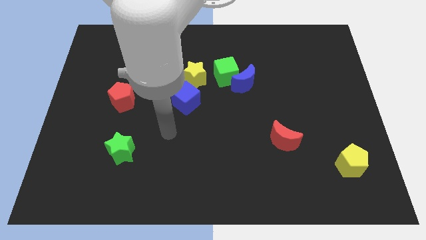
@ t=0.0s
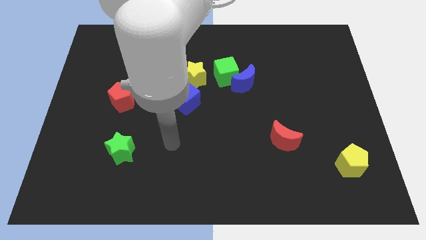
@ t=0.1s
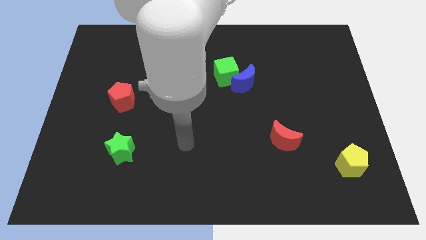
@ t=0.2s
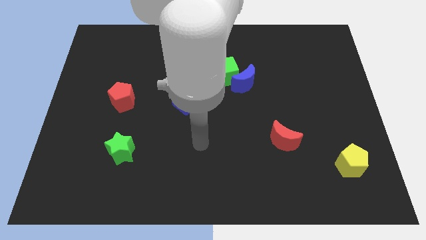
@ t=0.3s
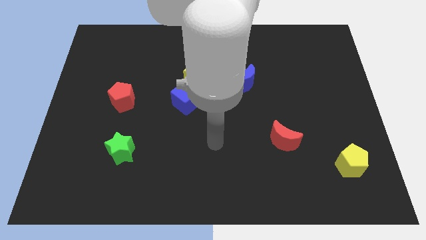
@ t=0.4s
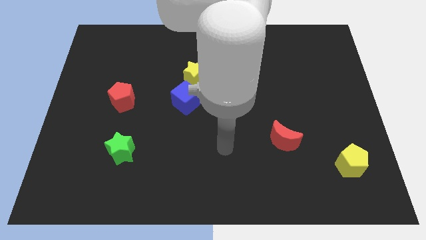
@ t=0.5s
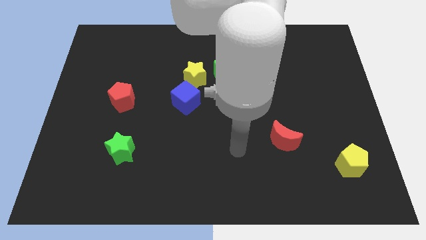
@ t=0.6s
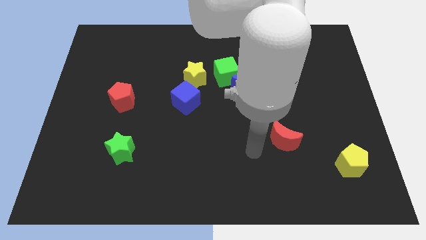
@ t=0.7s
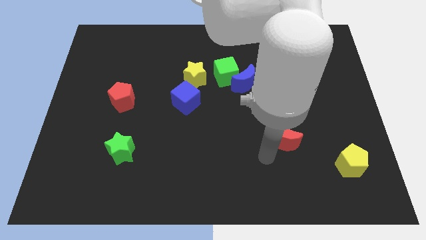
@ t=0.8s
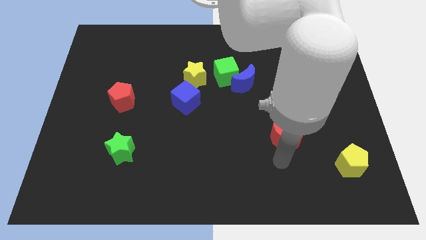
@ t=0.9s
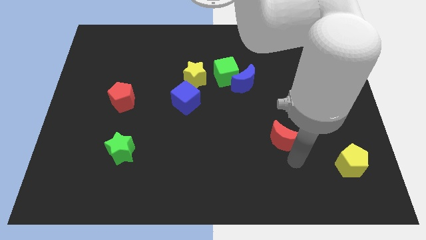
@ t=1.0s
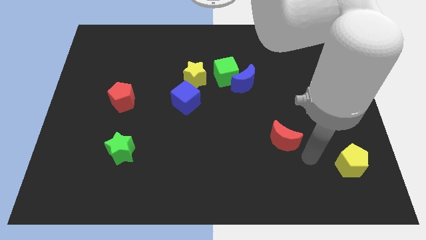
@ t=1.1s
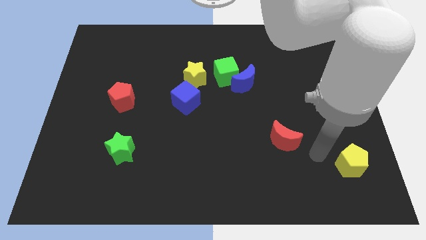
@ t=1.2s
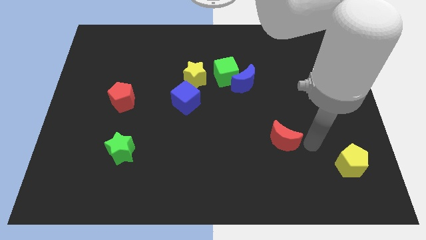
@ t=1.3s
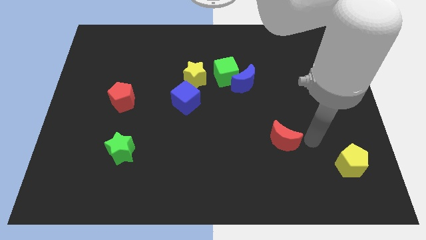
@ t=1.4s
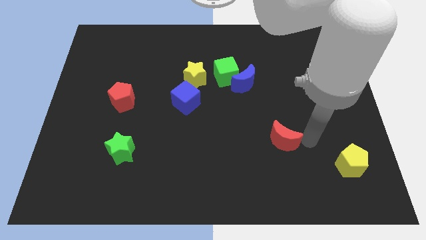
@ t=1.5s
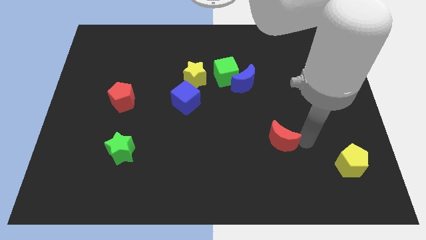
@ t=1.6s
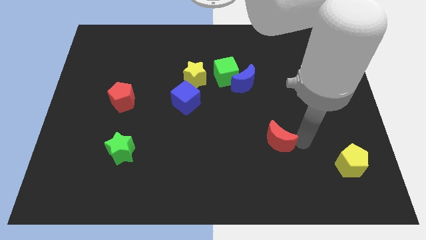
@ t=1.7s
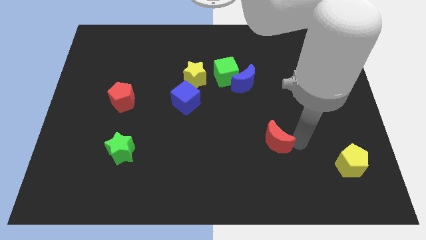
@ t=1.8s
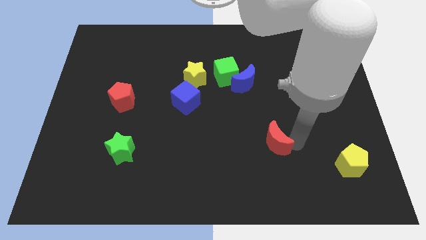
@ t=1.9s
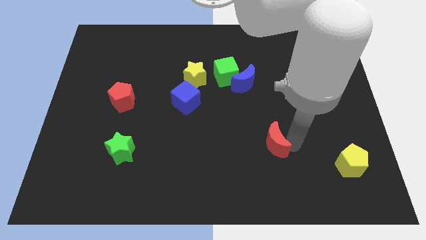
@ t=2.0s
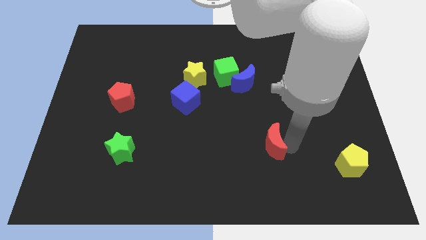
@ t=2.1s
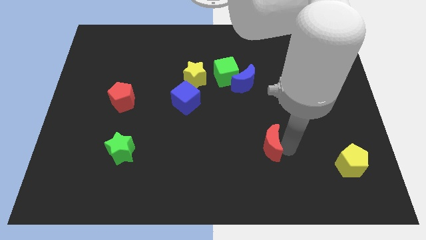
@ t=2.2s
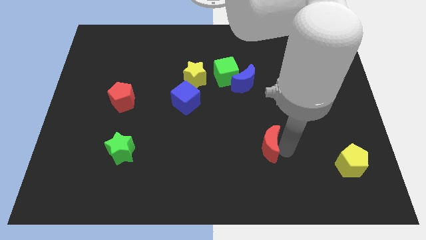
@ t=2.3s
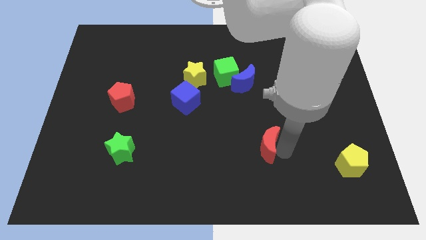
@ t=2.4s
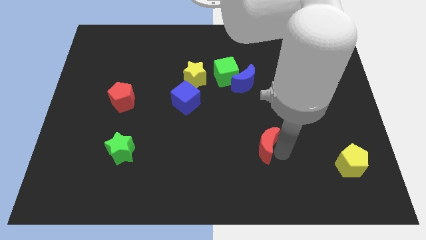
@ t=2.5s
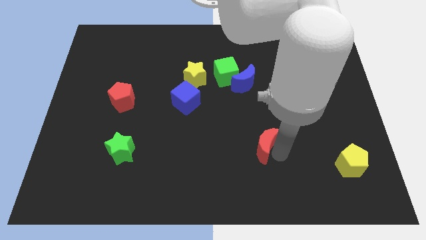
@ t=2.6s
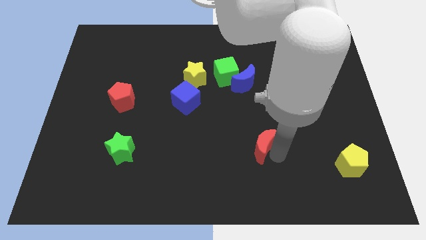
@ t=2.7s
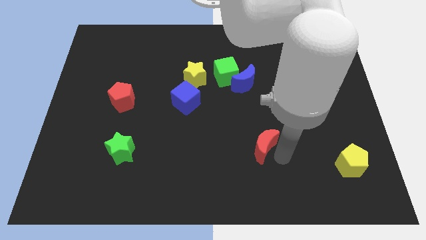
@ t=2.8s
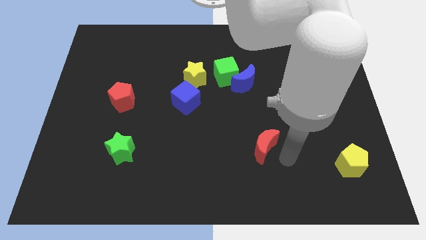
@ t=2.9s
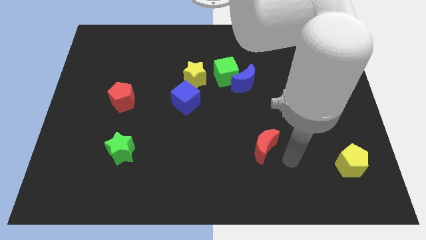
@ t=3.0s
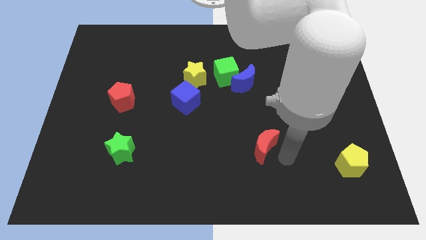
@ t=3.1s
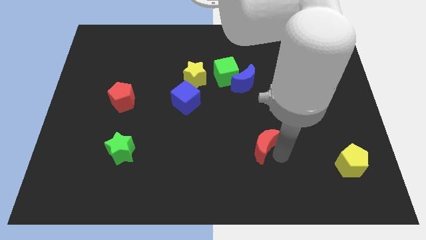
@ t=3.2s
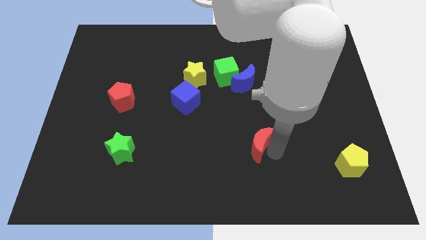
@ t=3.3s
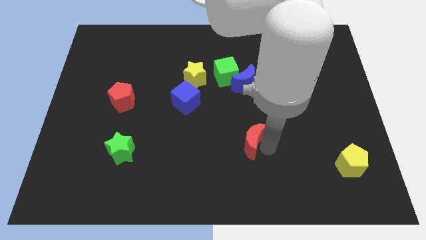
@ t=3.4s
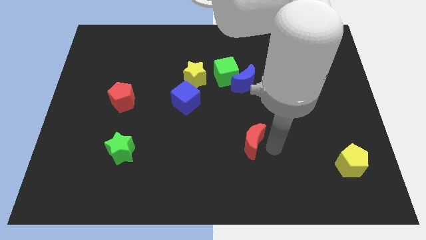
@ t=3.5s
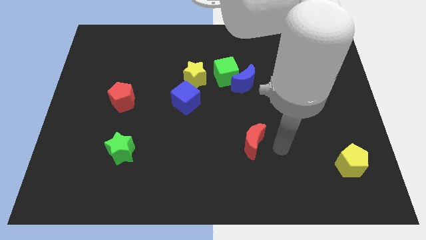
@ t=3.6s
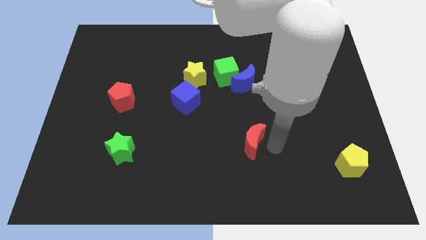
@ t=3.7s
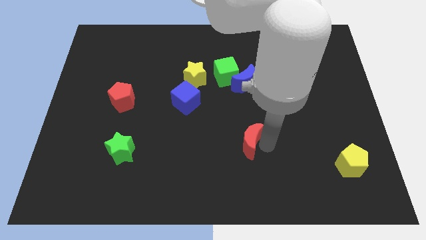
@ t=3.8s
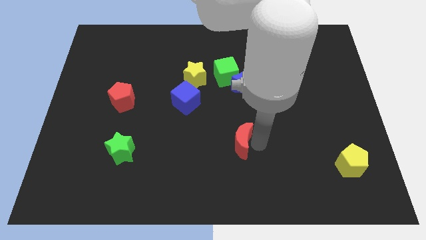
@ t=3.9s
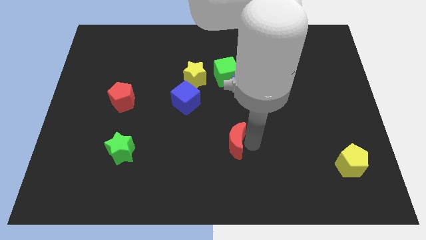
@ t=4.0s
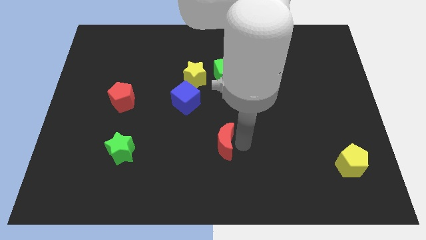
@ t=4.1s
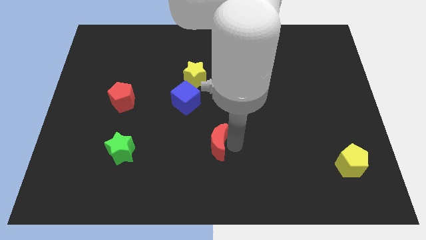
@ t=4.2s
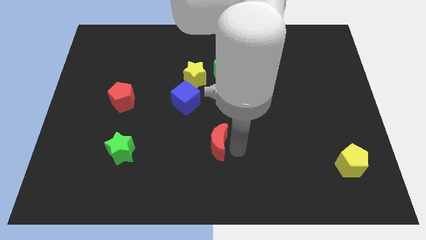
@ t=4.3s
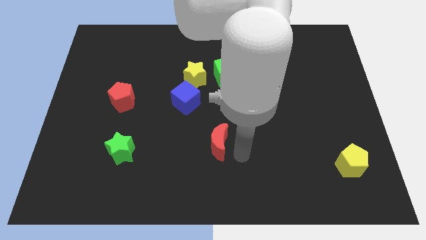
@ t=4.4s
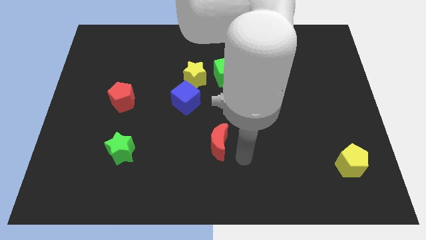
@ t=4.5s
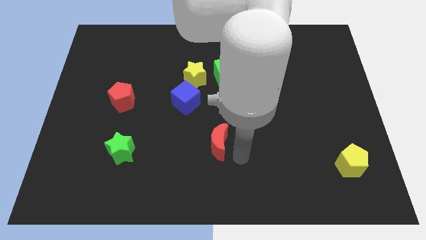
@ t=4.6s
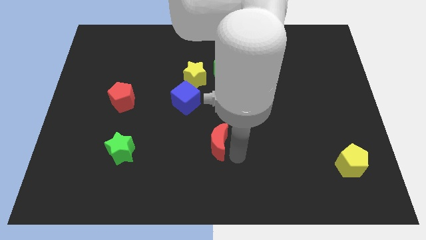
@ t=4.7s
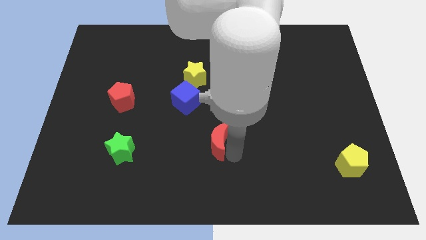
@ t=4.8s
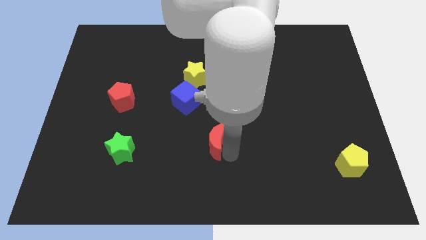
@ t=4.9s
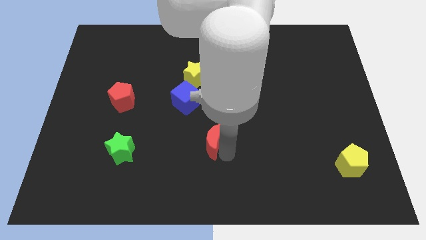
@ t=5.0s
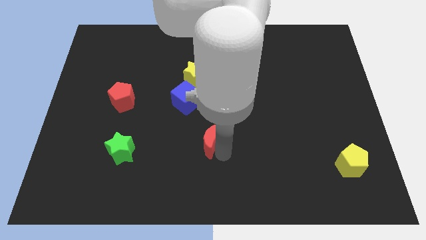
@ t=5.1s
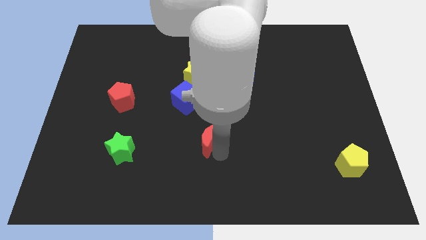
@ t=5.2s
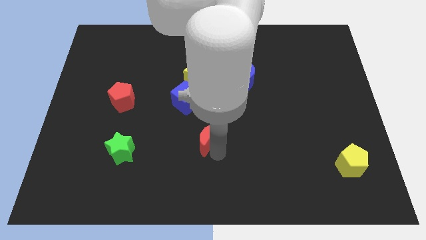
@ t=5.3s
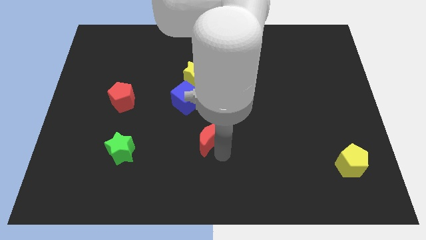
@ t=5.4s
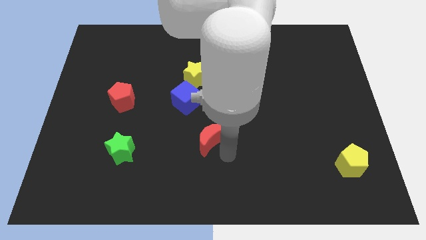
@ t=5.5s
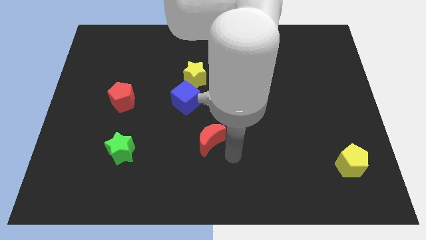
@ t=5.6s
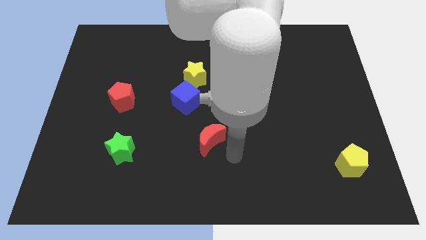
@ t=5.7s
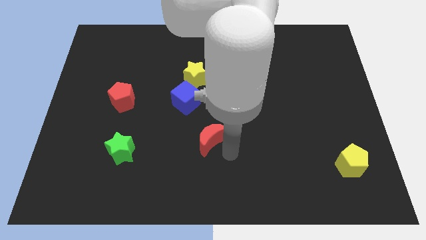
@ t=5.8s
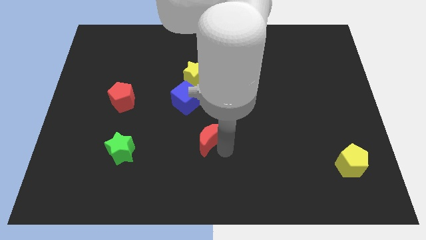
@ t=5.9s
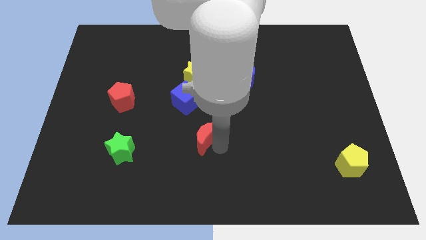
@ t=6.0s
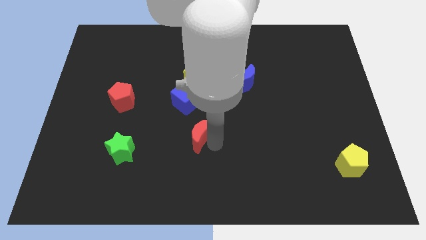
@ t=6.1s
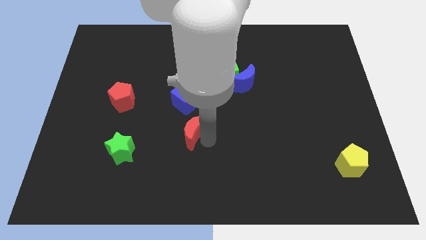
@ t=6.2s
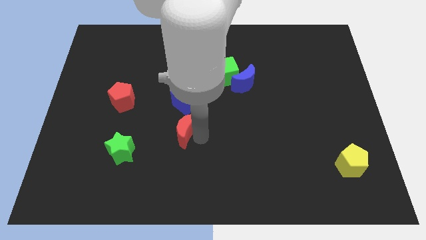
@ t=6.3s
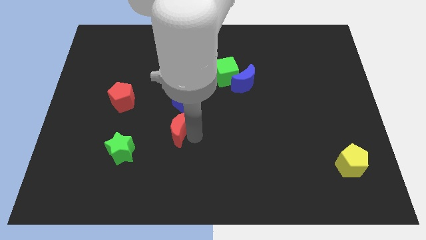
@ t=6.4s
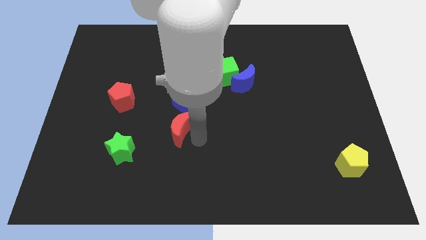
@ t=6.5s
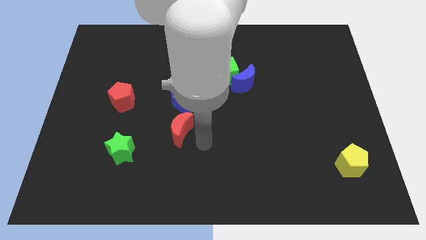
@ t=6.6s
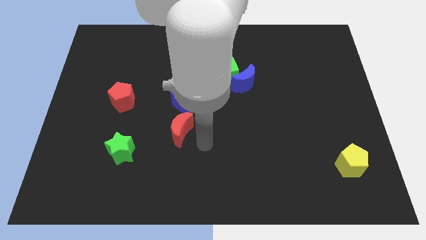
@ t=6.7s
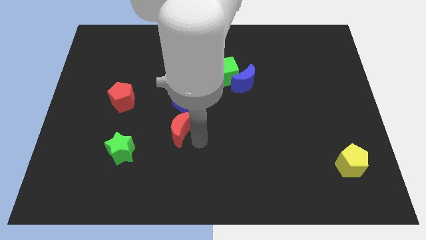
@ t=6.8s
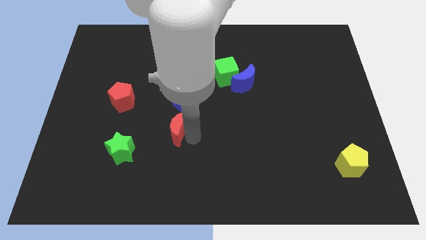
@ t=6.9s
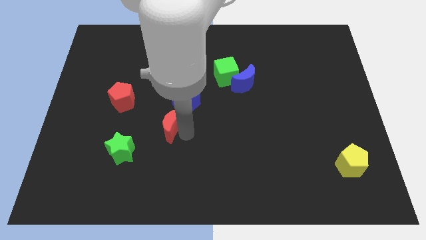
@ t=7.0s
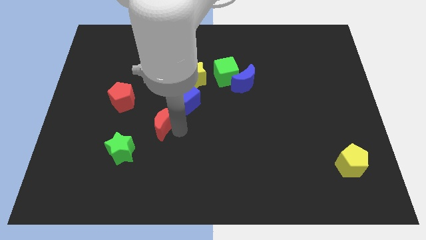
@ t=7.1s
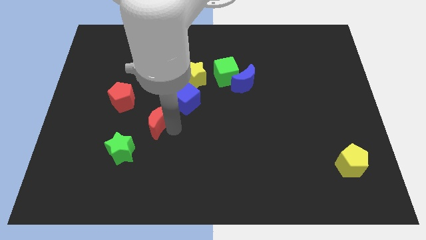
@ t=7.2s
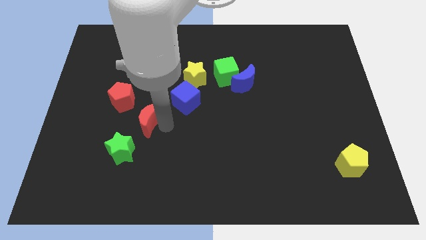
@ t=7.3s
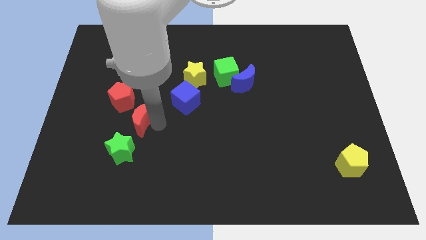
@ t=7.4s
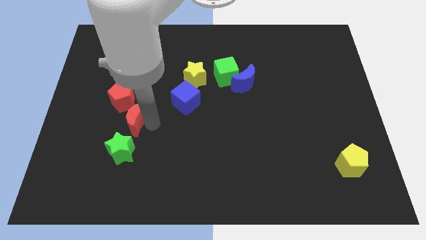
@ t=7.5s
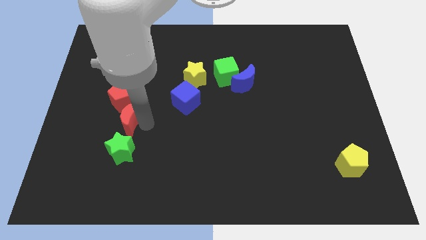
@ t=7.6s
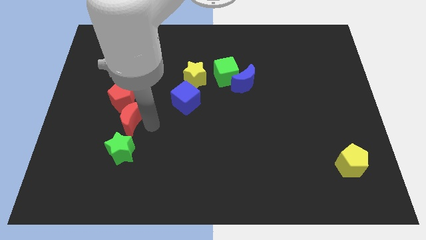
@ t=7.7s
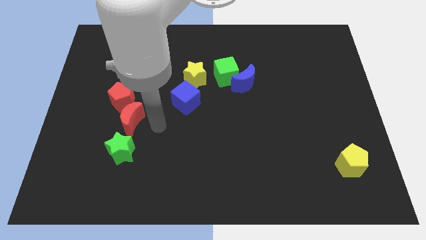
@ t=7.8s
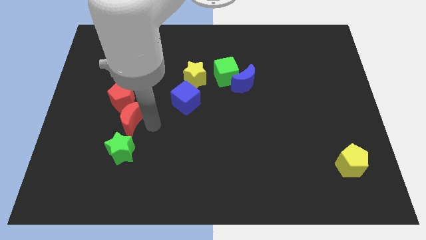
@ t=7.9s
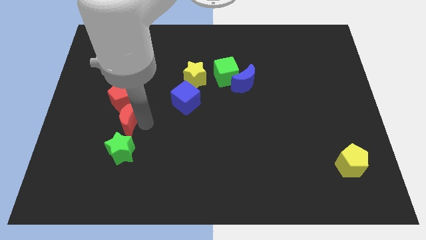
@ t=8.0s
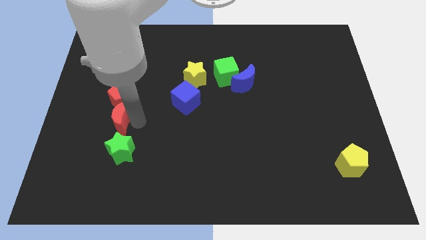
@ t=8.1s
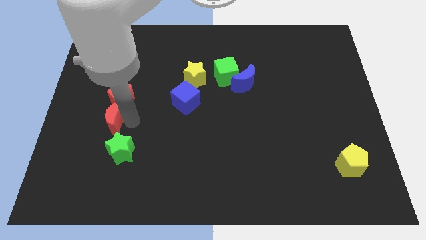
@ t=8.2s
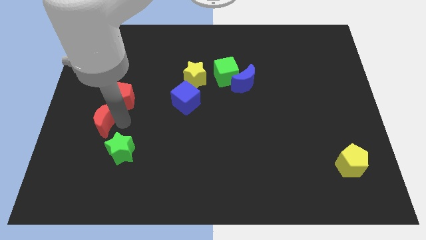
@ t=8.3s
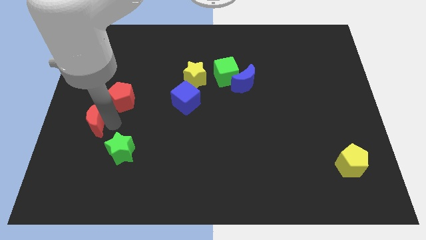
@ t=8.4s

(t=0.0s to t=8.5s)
put the red moon to the left side
